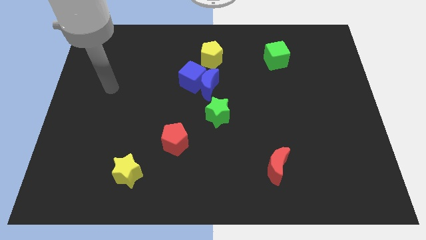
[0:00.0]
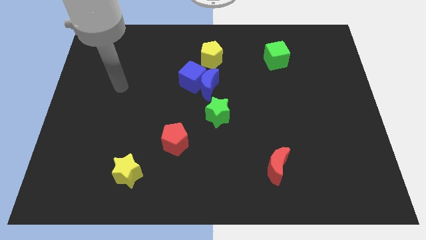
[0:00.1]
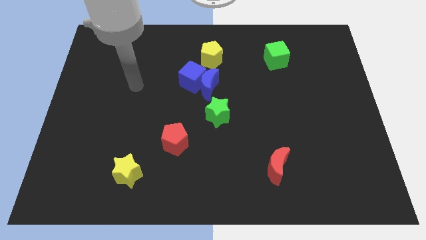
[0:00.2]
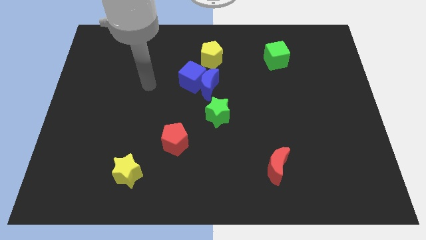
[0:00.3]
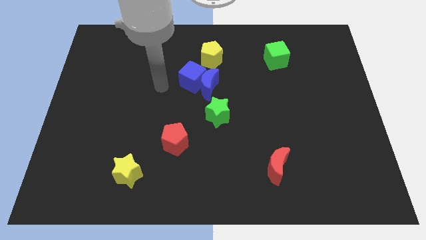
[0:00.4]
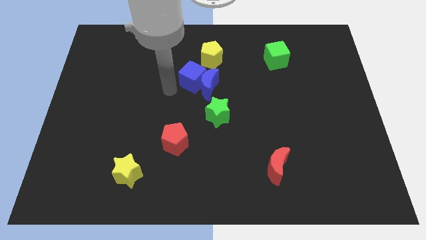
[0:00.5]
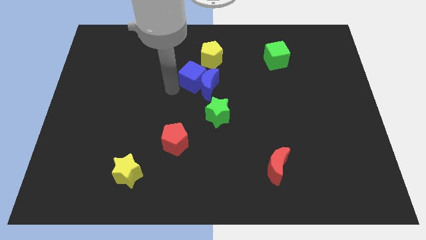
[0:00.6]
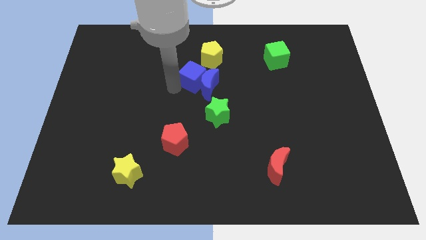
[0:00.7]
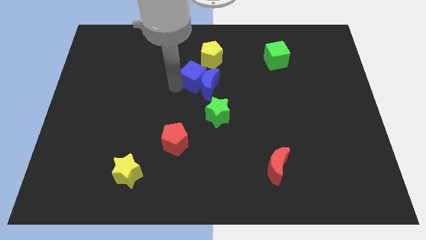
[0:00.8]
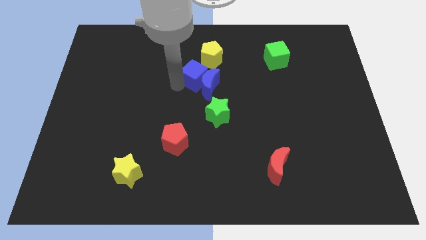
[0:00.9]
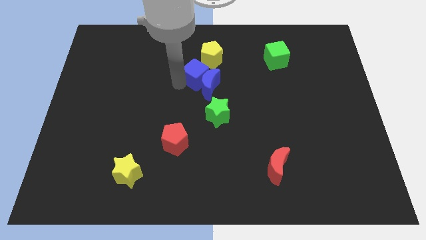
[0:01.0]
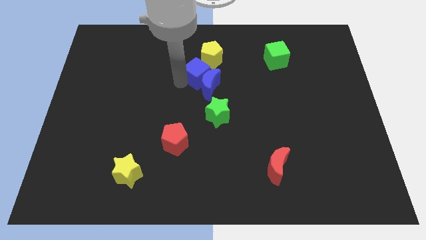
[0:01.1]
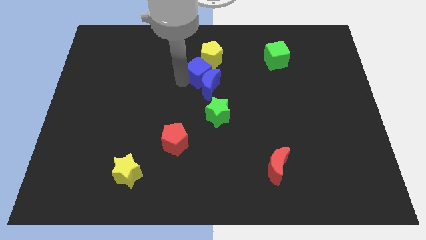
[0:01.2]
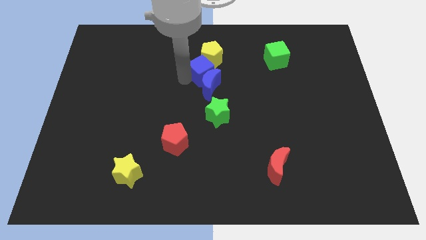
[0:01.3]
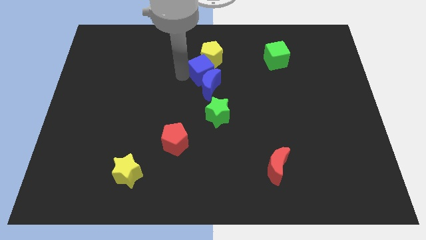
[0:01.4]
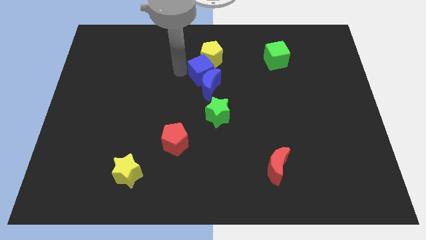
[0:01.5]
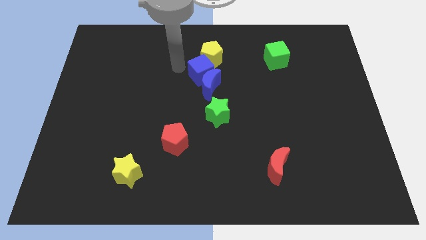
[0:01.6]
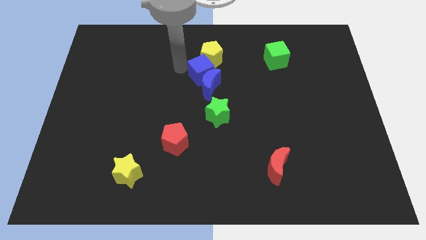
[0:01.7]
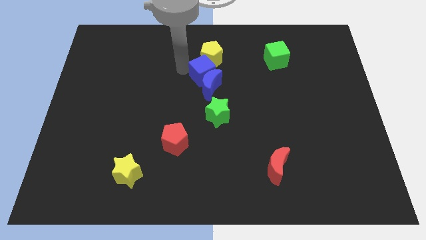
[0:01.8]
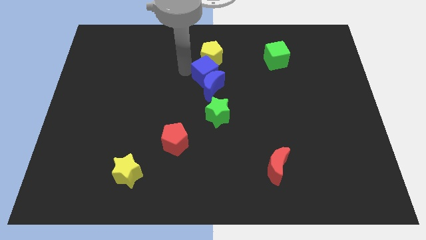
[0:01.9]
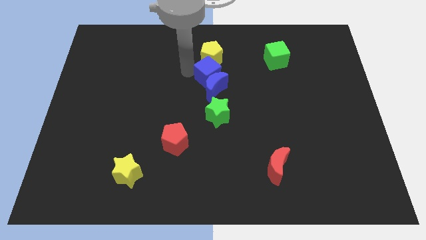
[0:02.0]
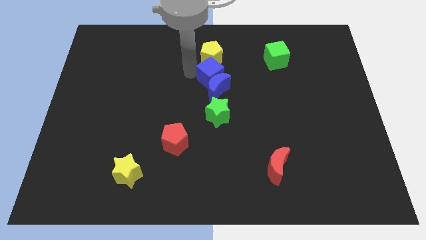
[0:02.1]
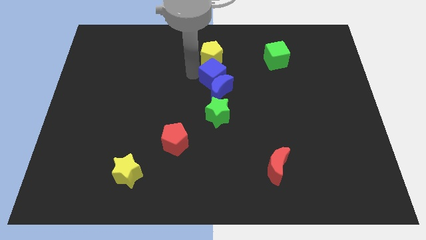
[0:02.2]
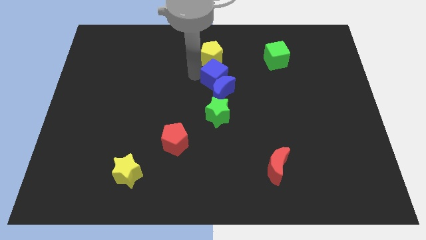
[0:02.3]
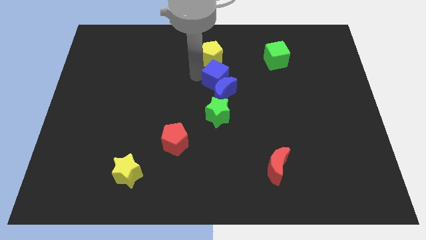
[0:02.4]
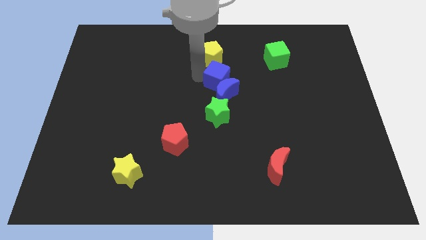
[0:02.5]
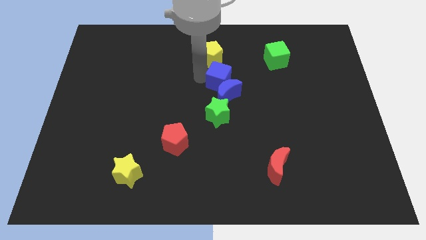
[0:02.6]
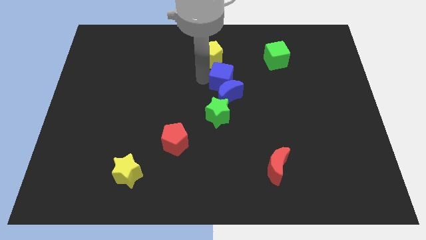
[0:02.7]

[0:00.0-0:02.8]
push the blue cube right slightly

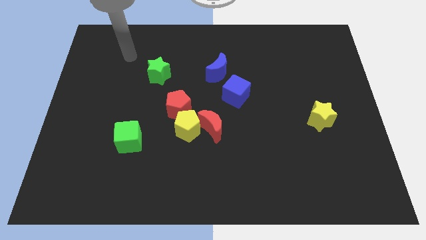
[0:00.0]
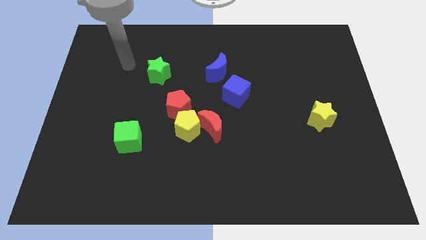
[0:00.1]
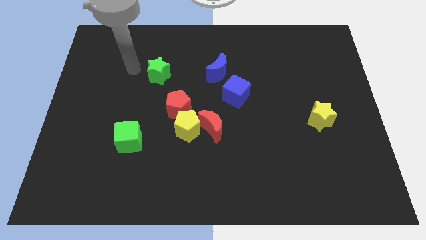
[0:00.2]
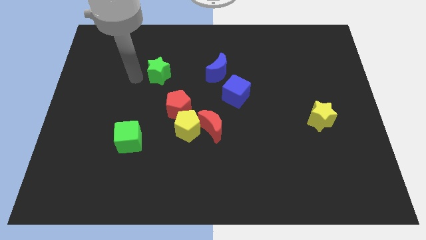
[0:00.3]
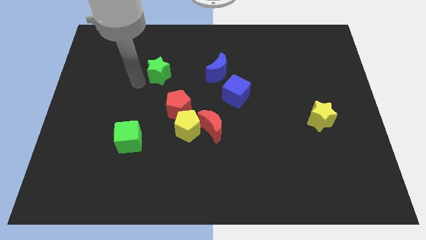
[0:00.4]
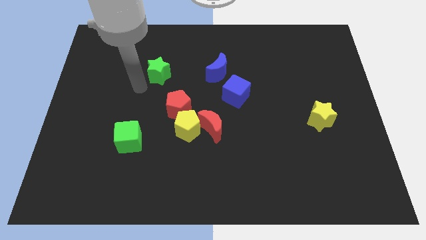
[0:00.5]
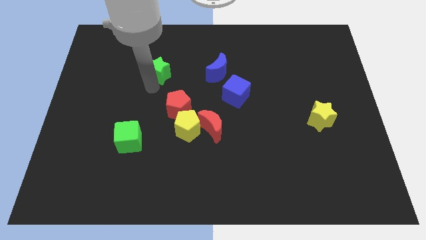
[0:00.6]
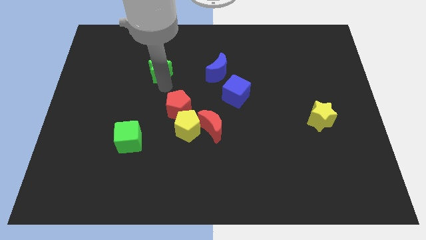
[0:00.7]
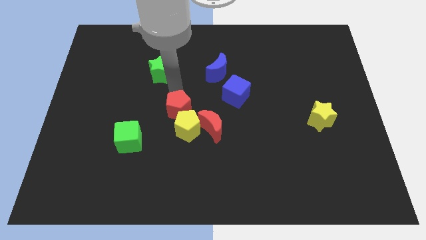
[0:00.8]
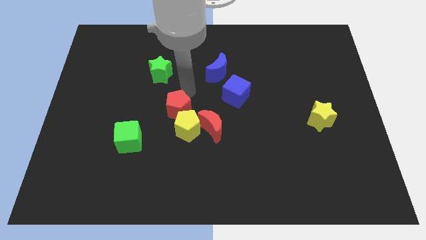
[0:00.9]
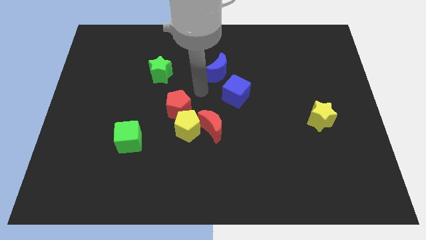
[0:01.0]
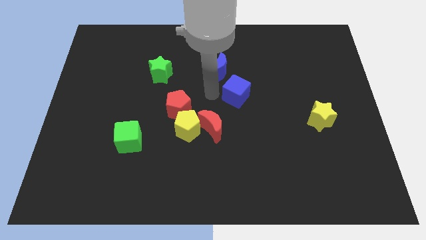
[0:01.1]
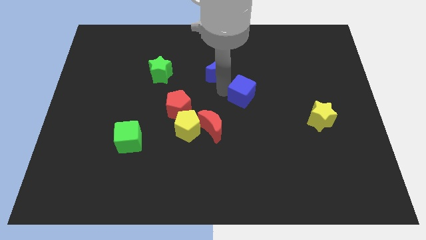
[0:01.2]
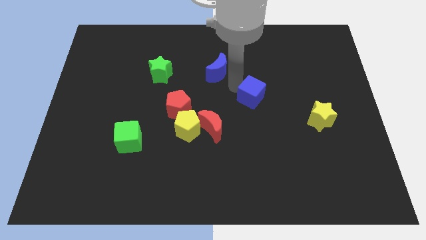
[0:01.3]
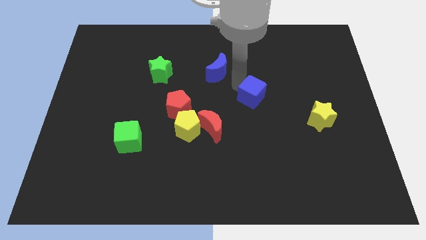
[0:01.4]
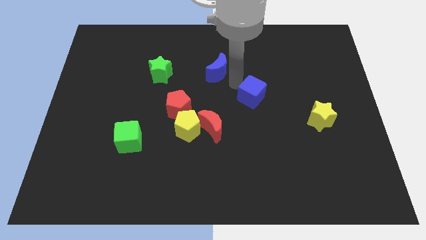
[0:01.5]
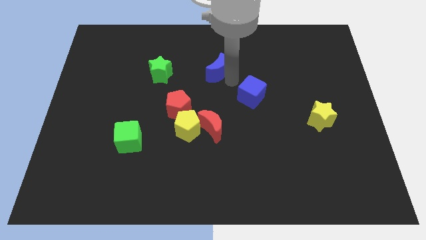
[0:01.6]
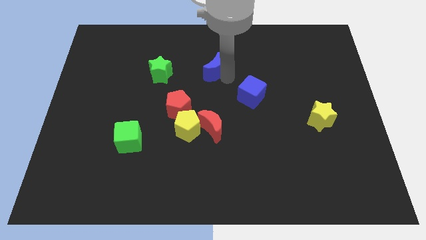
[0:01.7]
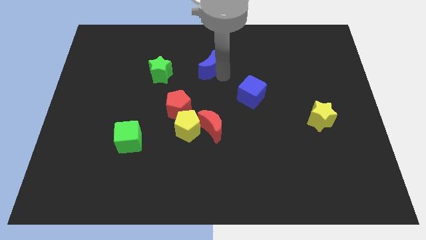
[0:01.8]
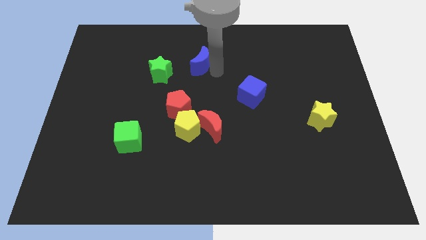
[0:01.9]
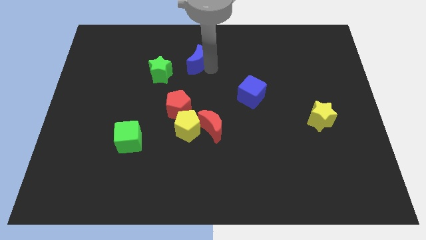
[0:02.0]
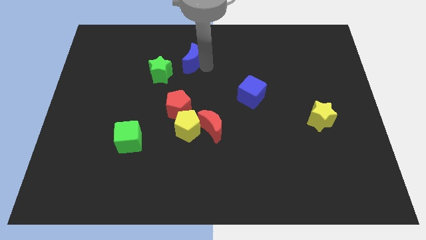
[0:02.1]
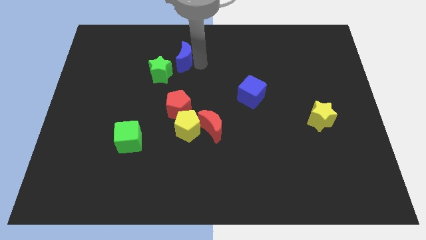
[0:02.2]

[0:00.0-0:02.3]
push the blue moon somewhat left

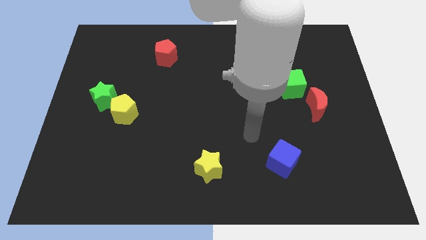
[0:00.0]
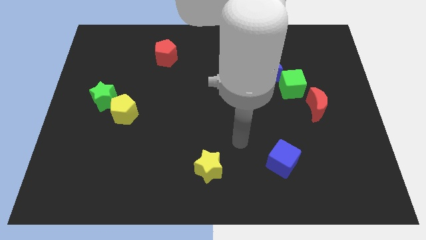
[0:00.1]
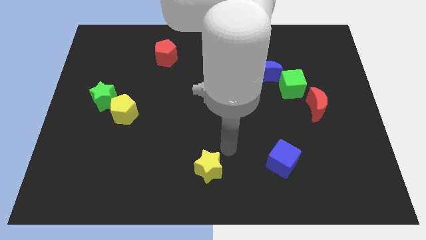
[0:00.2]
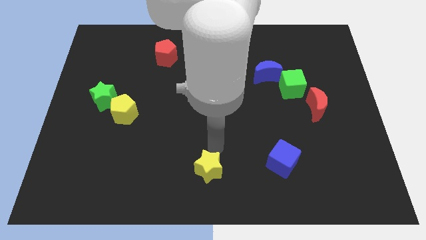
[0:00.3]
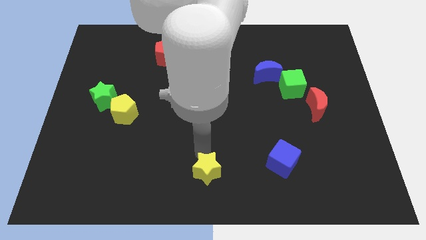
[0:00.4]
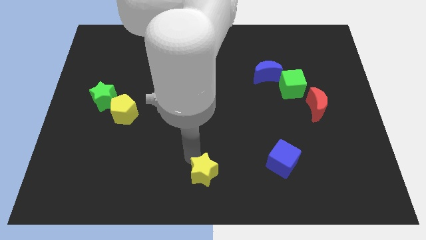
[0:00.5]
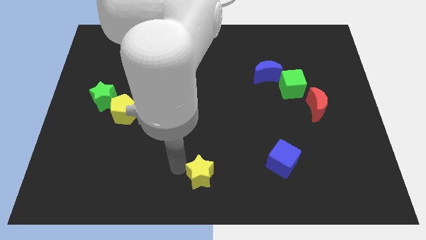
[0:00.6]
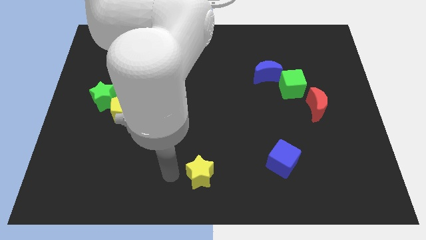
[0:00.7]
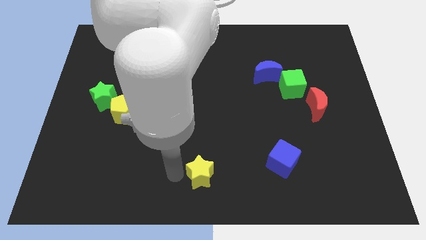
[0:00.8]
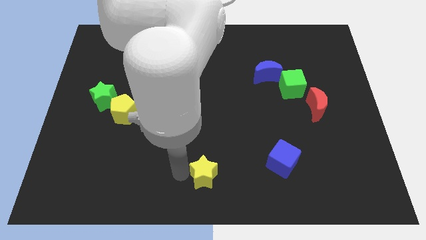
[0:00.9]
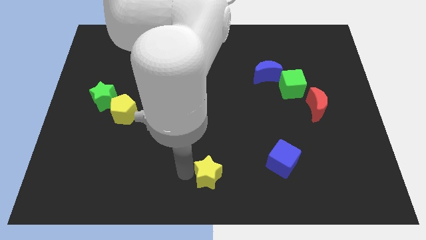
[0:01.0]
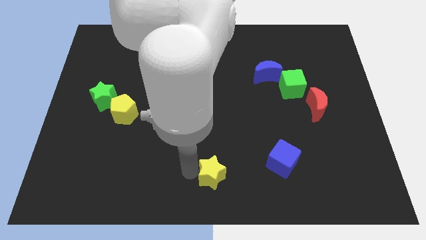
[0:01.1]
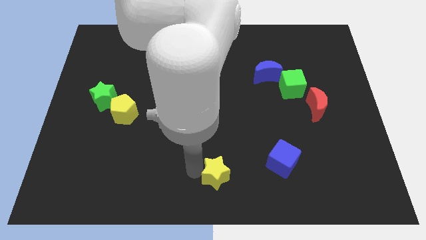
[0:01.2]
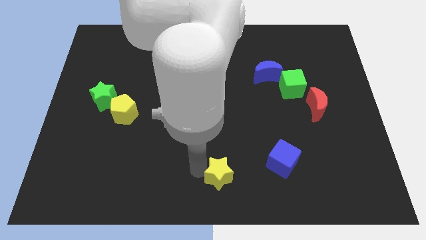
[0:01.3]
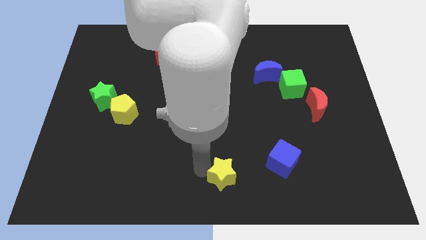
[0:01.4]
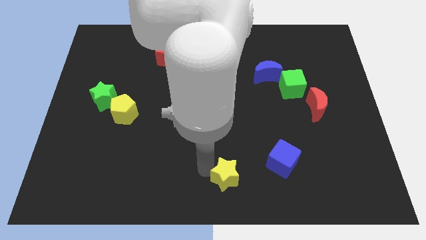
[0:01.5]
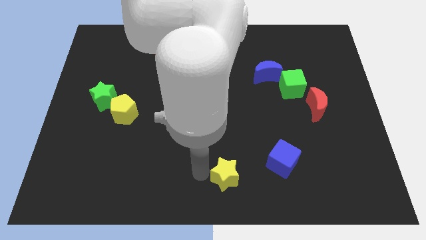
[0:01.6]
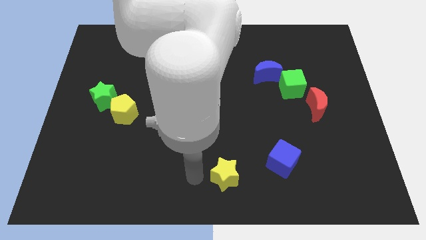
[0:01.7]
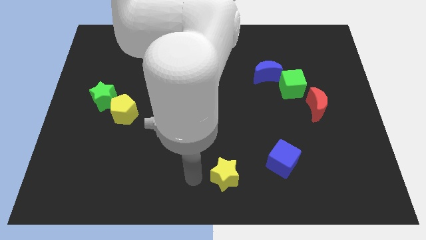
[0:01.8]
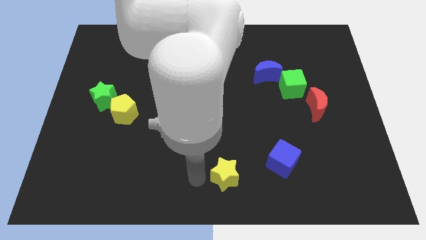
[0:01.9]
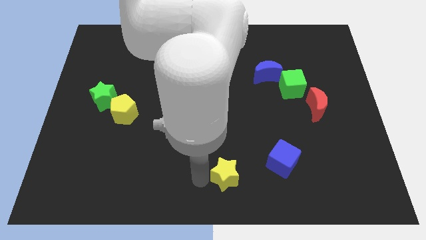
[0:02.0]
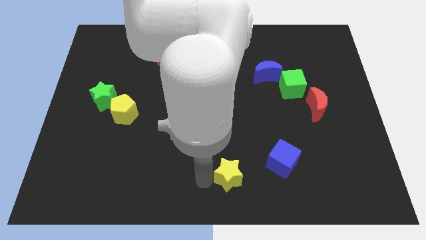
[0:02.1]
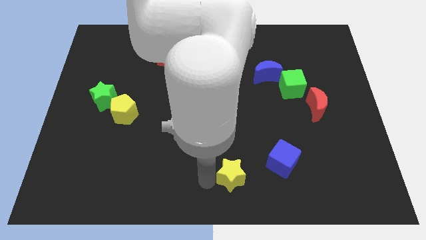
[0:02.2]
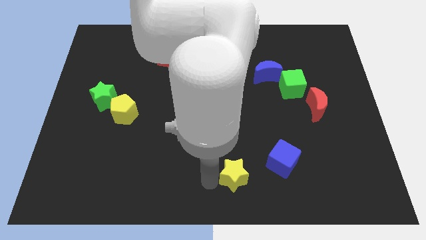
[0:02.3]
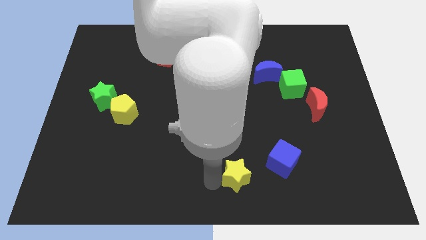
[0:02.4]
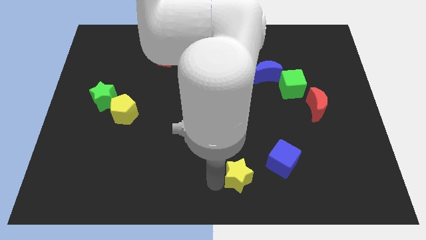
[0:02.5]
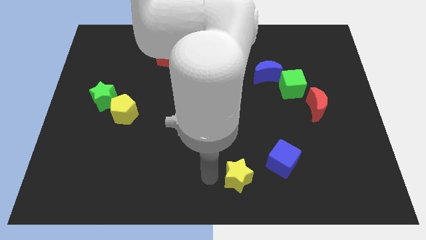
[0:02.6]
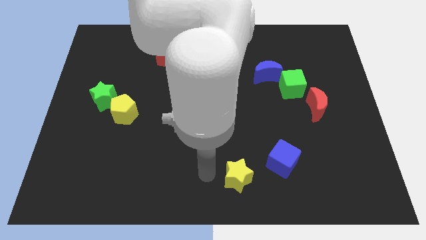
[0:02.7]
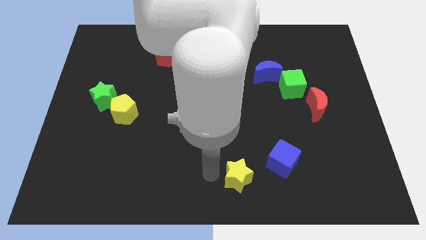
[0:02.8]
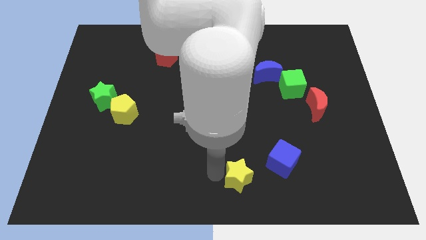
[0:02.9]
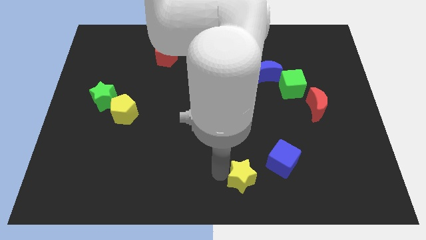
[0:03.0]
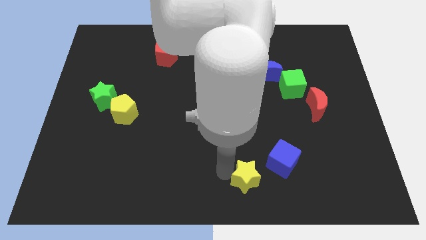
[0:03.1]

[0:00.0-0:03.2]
slightly slide the yellow star right
